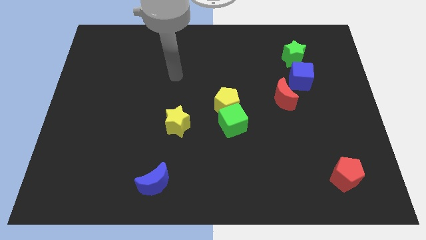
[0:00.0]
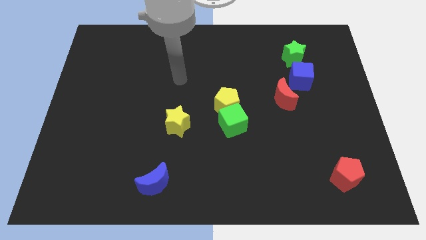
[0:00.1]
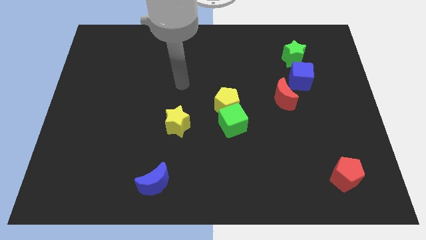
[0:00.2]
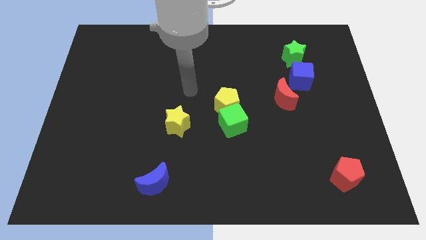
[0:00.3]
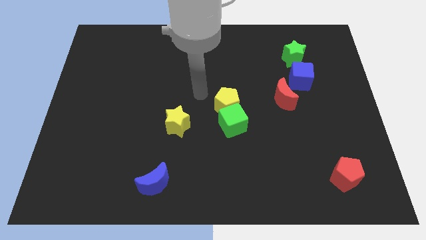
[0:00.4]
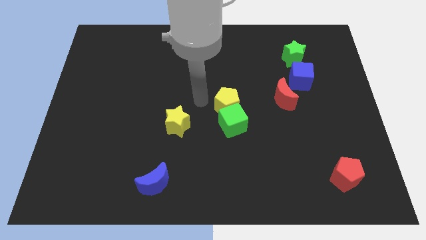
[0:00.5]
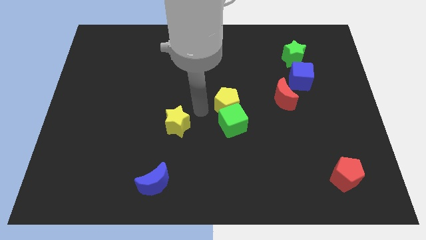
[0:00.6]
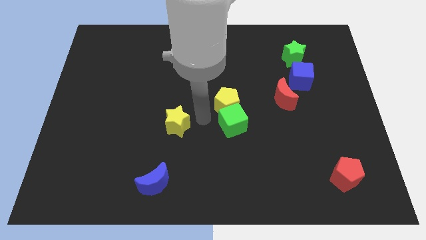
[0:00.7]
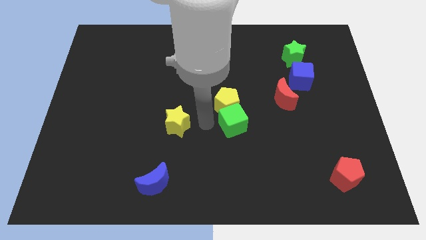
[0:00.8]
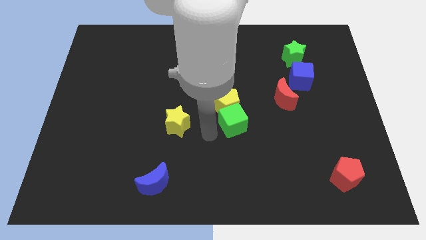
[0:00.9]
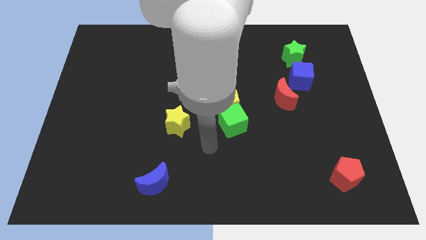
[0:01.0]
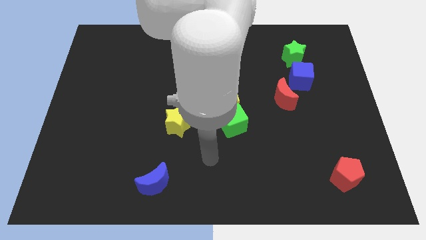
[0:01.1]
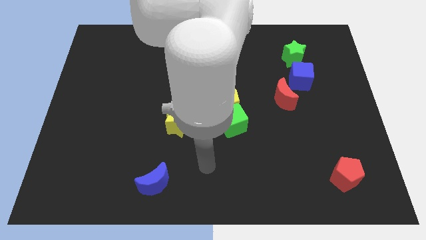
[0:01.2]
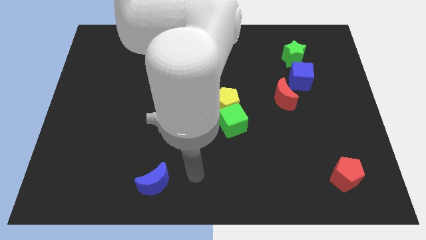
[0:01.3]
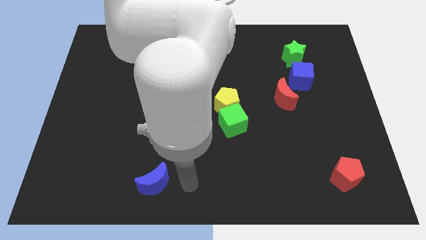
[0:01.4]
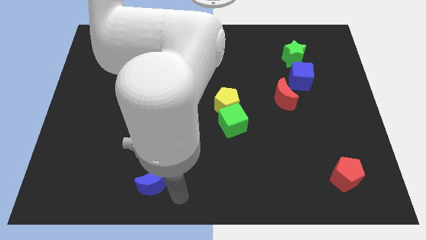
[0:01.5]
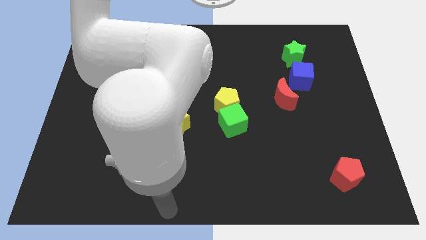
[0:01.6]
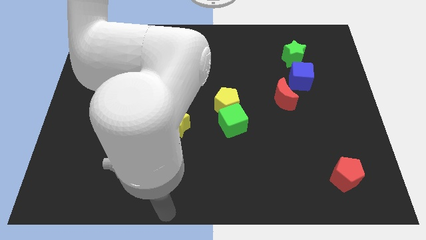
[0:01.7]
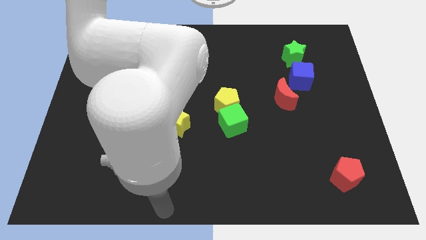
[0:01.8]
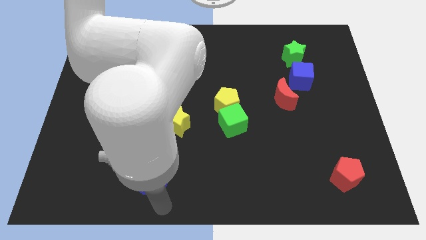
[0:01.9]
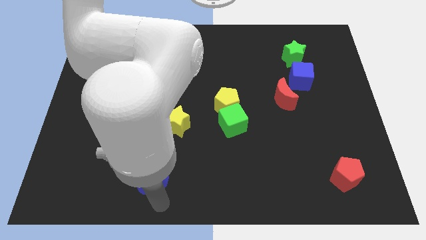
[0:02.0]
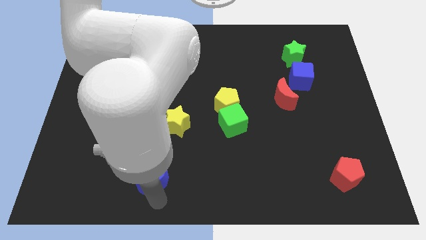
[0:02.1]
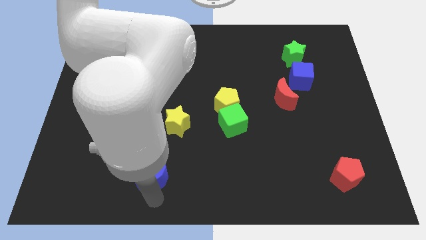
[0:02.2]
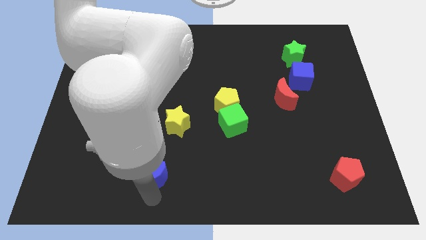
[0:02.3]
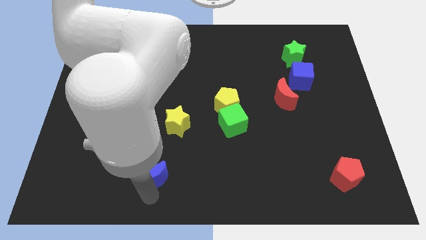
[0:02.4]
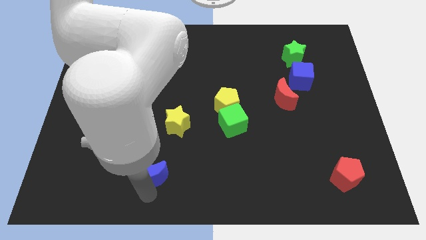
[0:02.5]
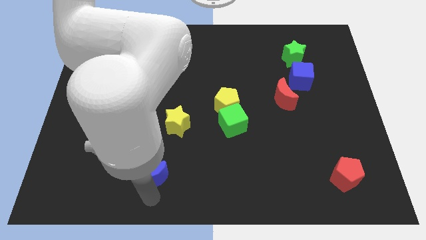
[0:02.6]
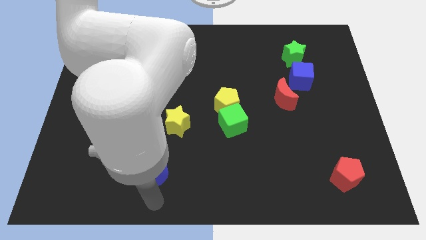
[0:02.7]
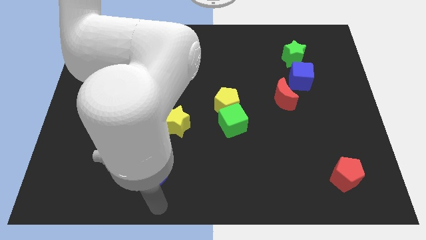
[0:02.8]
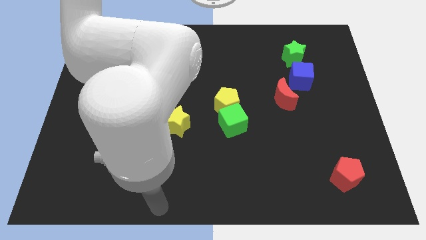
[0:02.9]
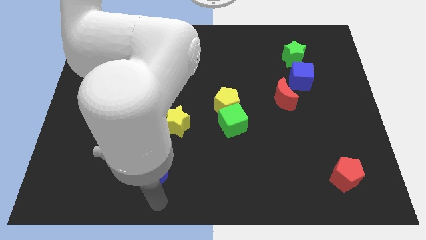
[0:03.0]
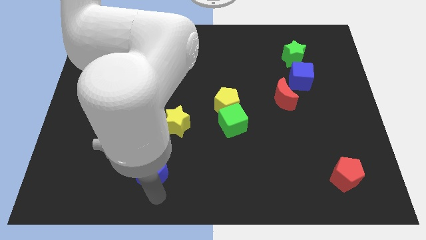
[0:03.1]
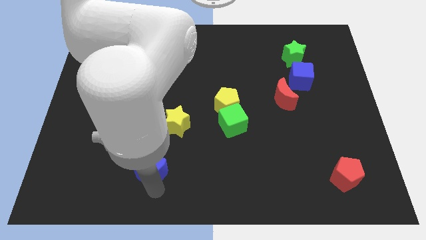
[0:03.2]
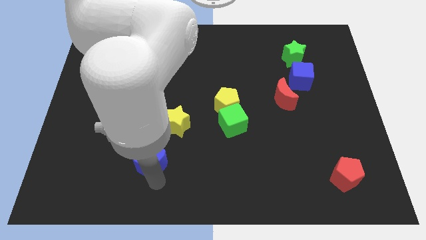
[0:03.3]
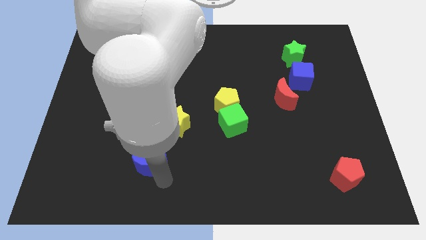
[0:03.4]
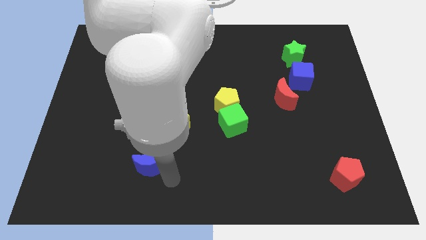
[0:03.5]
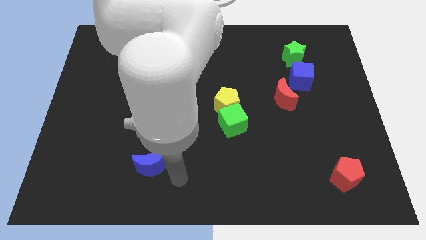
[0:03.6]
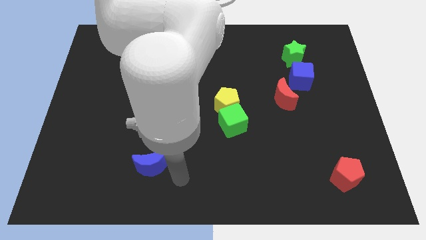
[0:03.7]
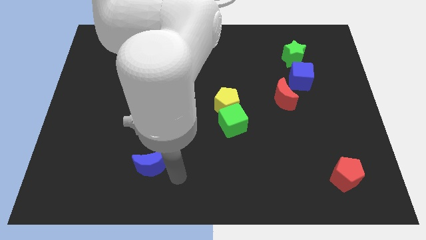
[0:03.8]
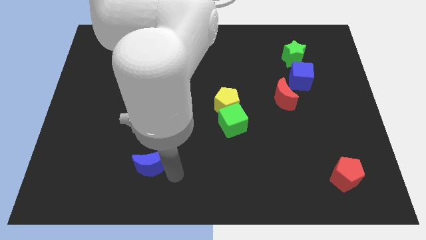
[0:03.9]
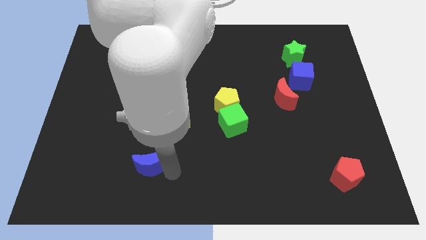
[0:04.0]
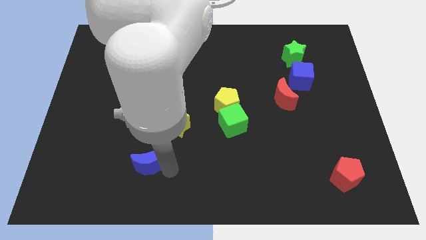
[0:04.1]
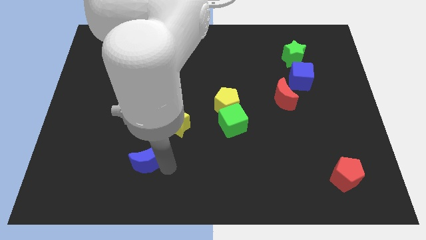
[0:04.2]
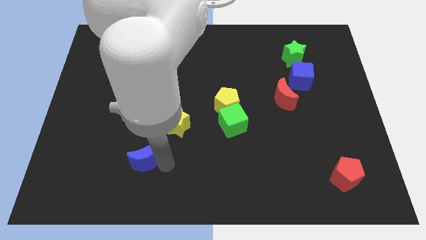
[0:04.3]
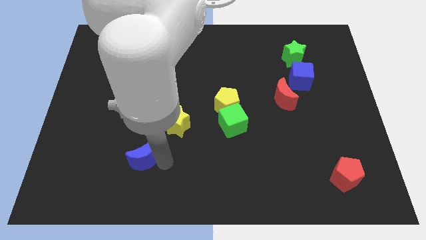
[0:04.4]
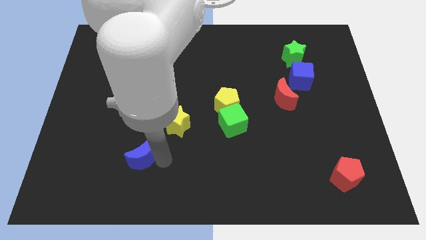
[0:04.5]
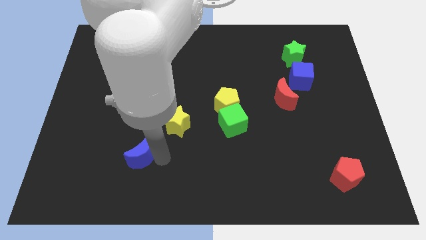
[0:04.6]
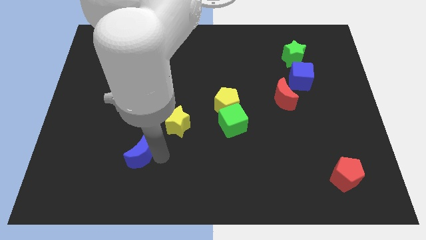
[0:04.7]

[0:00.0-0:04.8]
slide the blue moon somewhat up and to the left diagonally

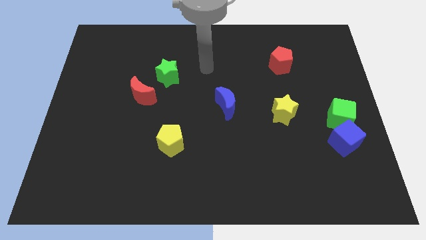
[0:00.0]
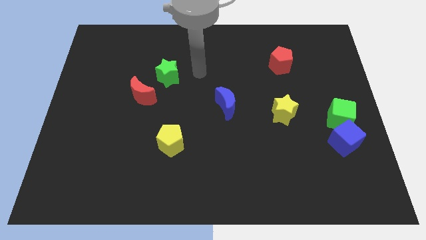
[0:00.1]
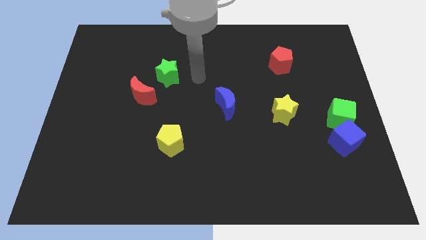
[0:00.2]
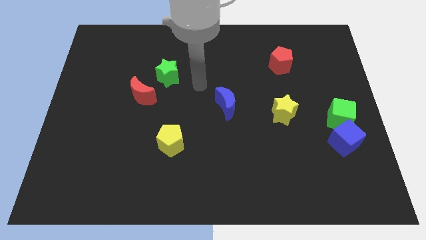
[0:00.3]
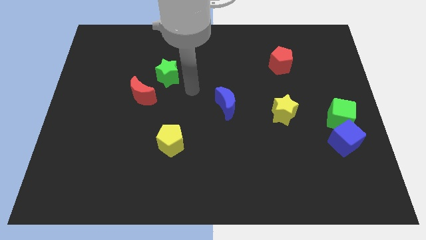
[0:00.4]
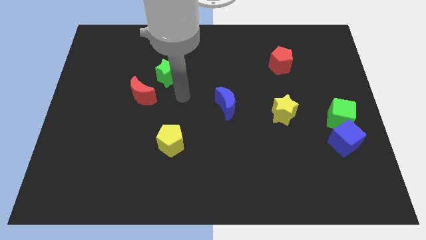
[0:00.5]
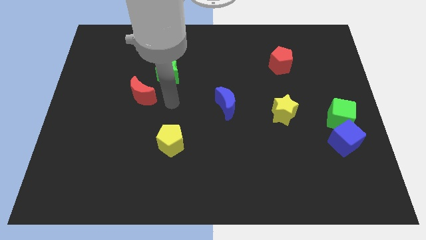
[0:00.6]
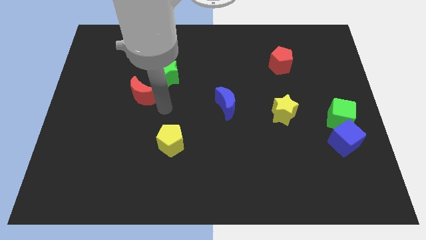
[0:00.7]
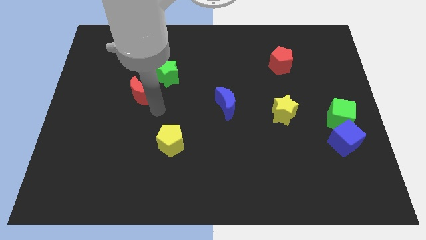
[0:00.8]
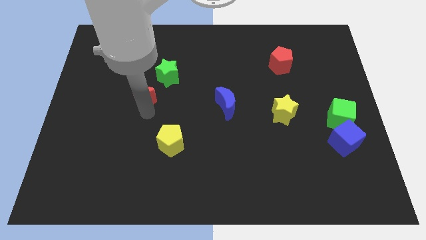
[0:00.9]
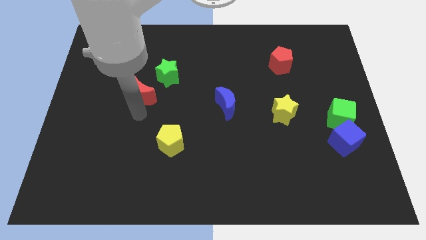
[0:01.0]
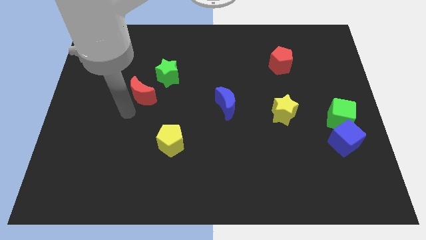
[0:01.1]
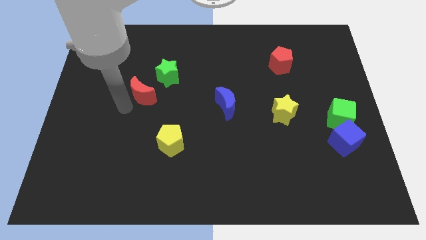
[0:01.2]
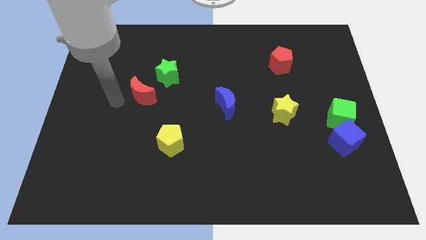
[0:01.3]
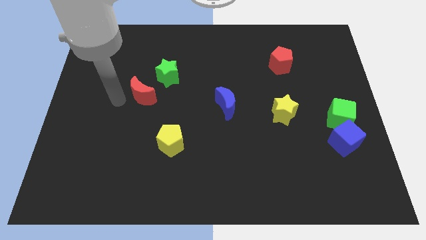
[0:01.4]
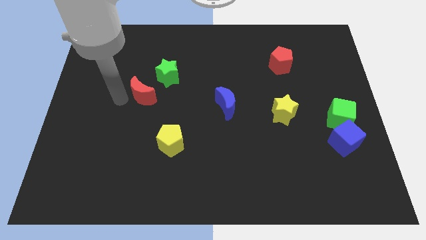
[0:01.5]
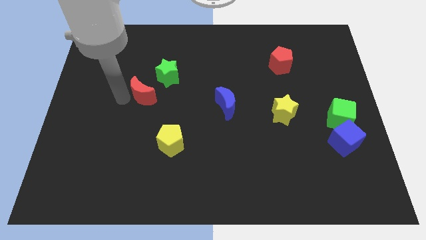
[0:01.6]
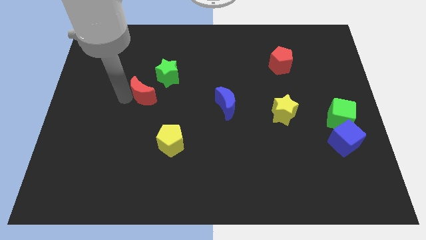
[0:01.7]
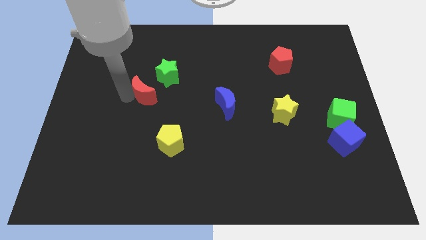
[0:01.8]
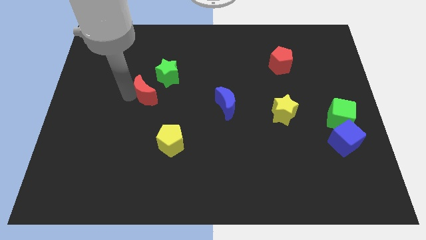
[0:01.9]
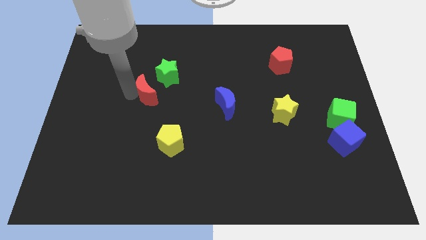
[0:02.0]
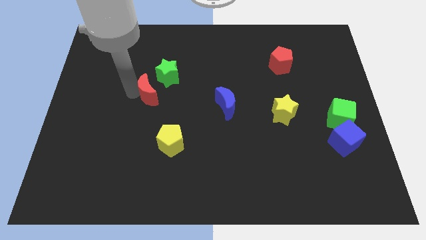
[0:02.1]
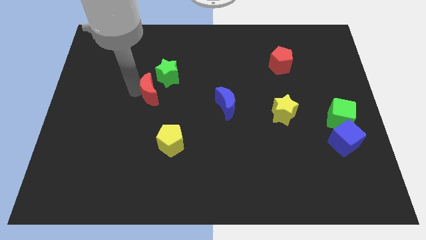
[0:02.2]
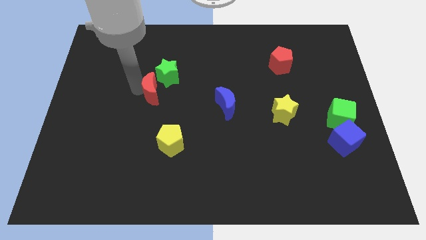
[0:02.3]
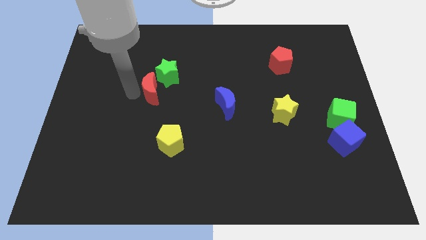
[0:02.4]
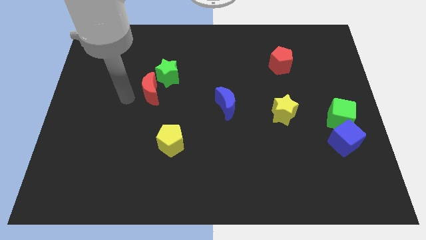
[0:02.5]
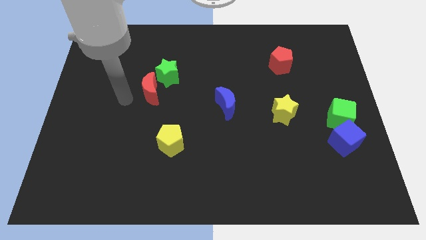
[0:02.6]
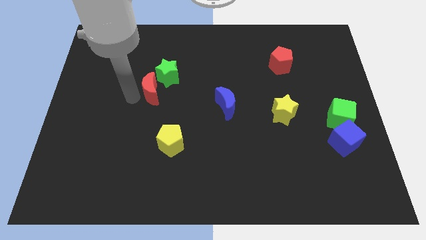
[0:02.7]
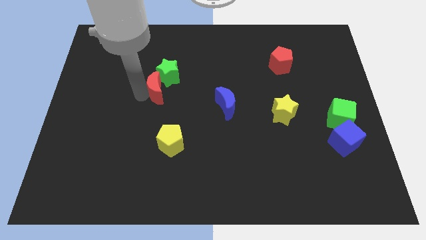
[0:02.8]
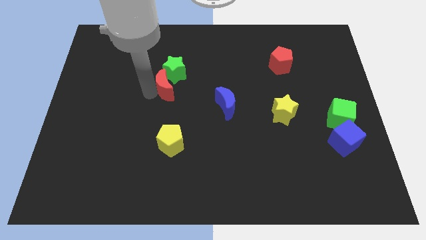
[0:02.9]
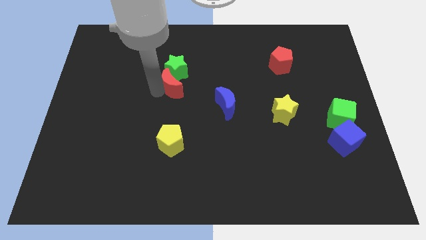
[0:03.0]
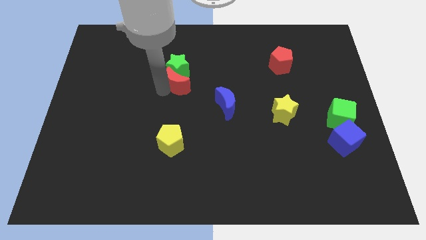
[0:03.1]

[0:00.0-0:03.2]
slightly slide the red moon up and then right
